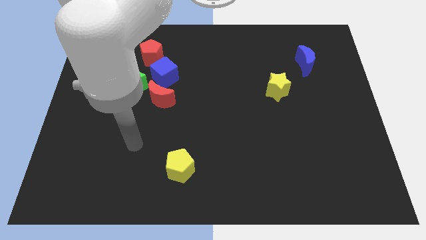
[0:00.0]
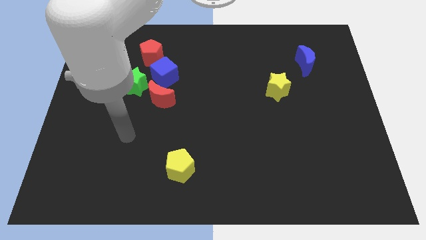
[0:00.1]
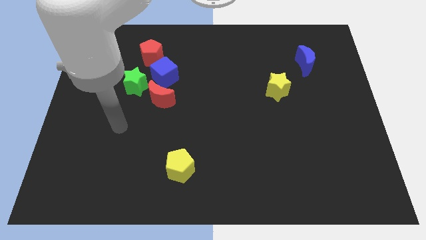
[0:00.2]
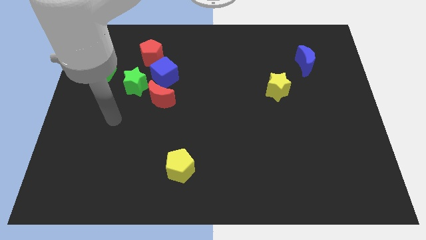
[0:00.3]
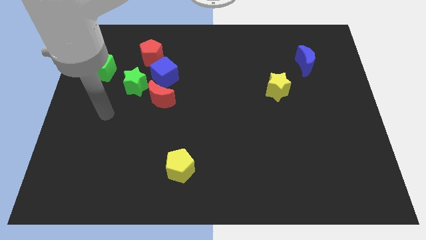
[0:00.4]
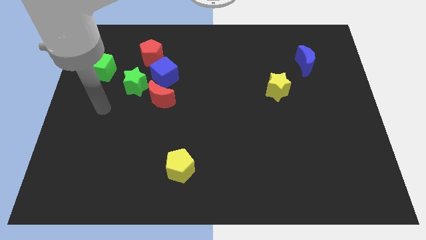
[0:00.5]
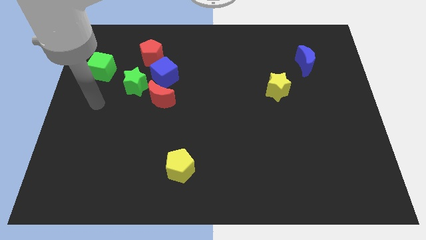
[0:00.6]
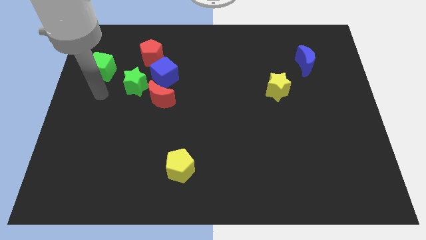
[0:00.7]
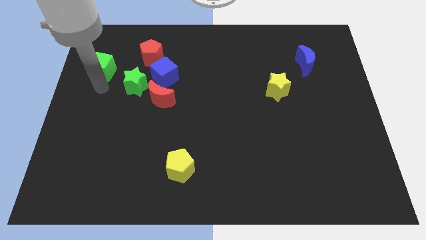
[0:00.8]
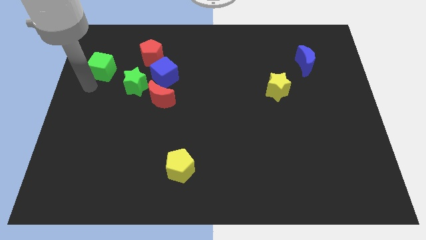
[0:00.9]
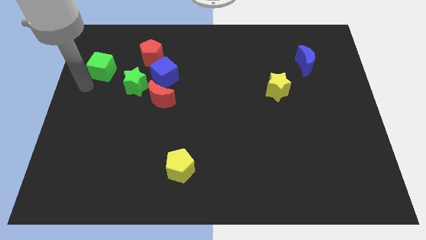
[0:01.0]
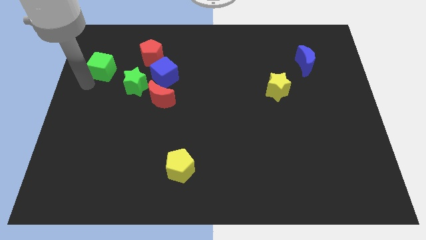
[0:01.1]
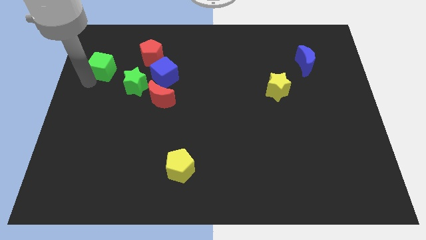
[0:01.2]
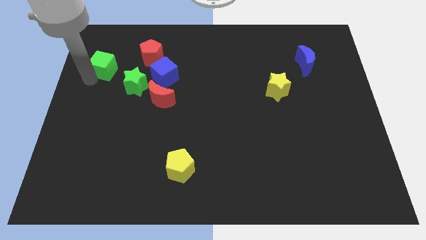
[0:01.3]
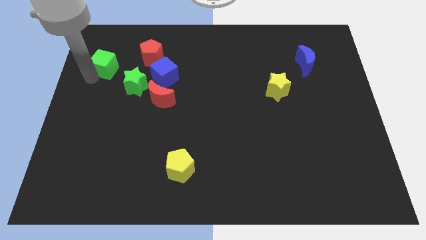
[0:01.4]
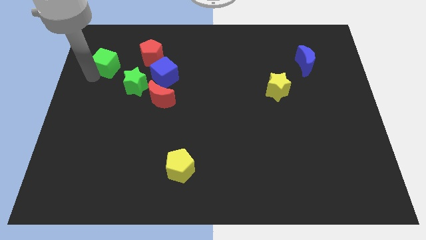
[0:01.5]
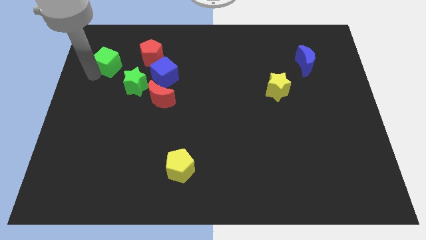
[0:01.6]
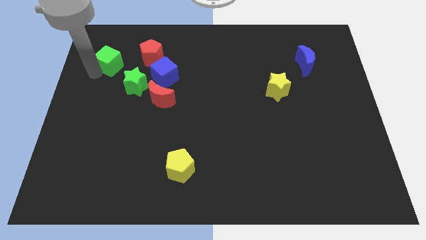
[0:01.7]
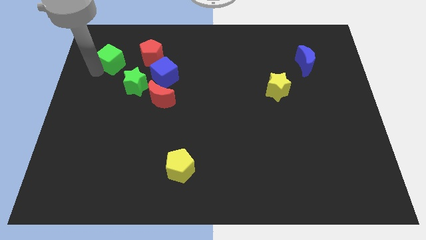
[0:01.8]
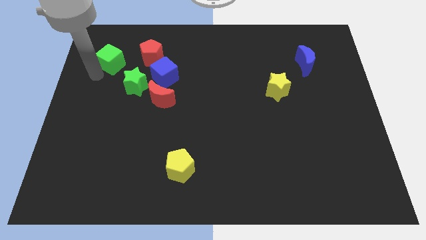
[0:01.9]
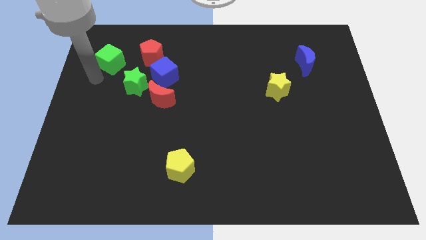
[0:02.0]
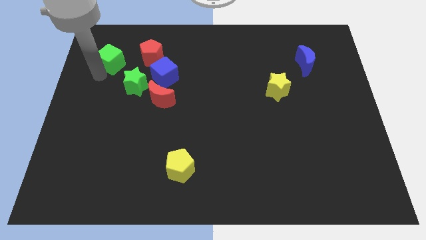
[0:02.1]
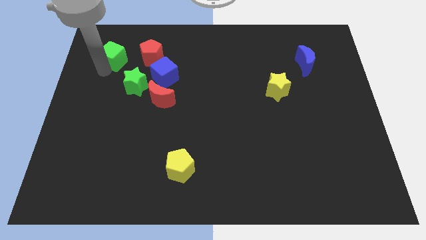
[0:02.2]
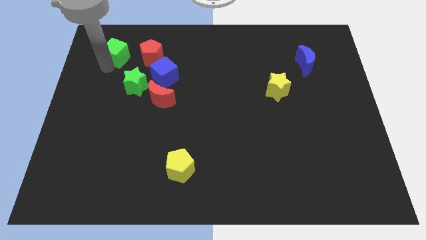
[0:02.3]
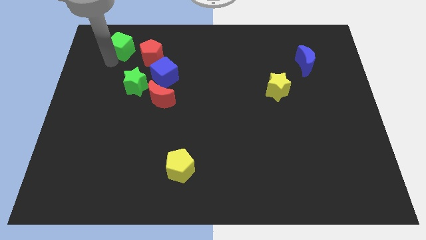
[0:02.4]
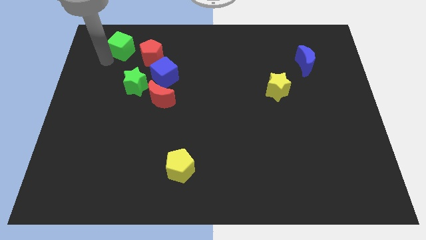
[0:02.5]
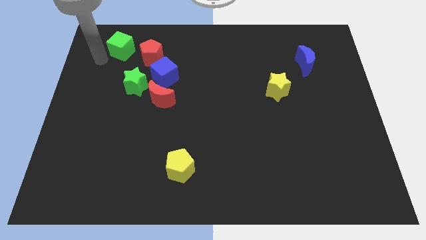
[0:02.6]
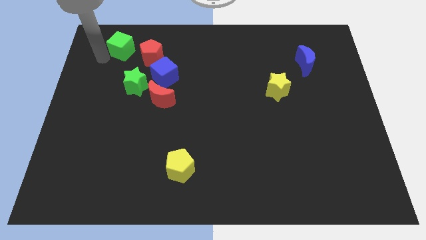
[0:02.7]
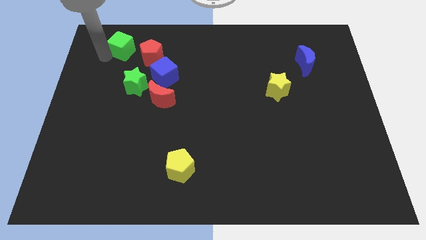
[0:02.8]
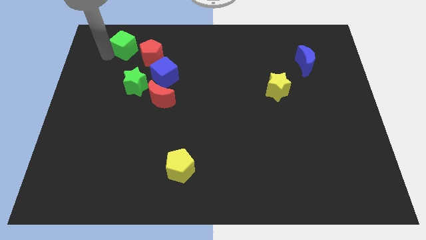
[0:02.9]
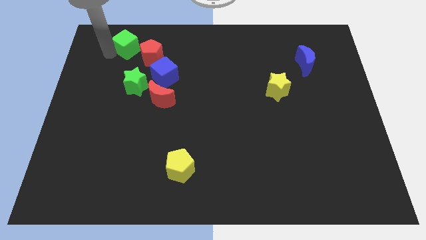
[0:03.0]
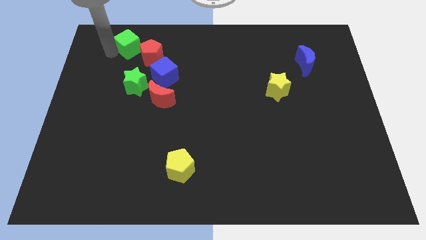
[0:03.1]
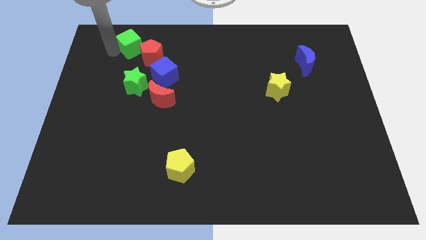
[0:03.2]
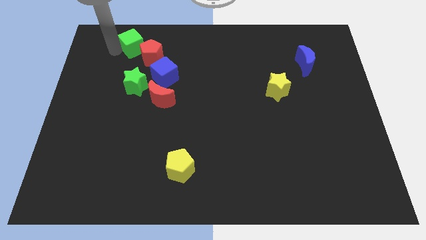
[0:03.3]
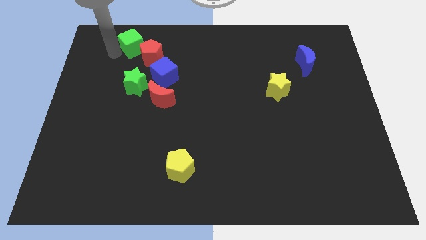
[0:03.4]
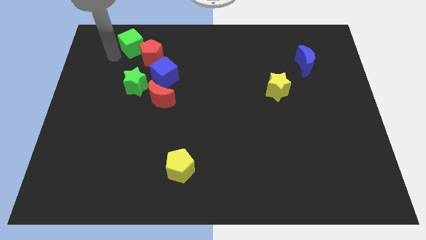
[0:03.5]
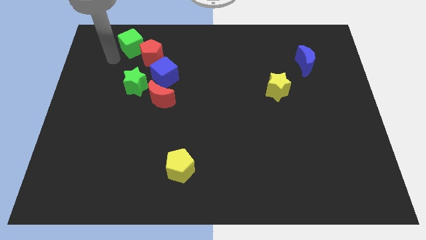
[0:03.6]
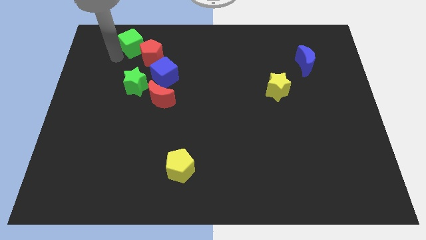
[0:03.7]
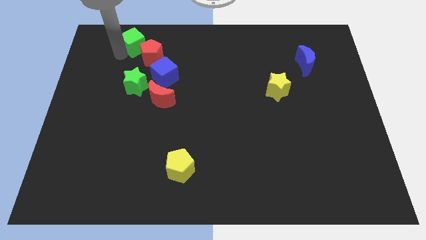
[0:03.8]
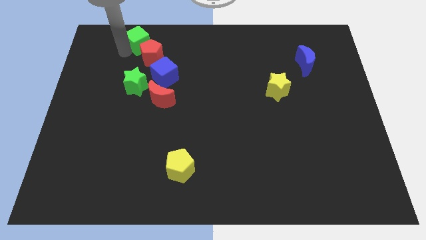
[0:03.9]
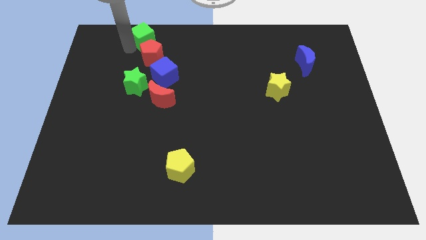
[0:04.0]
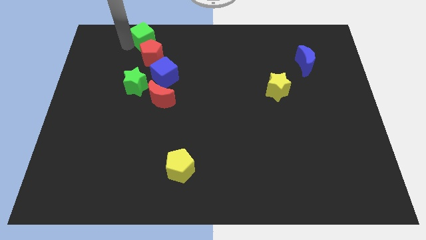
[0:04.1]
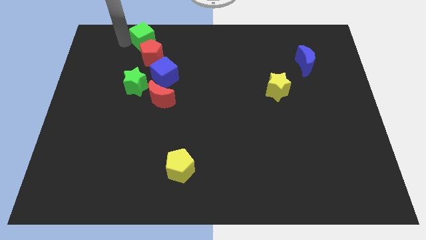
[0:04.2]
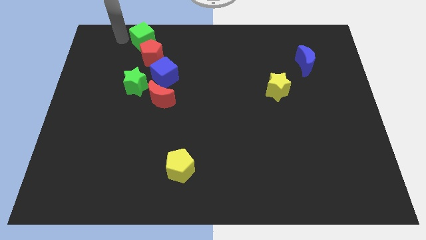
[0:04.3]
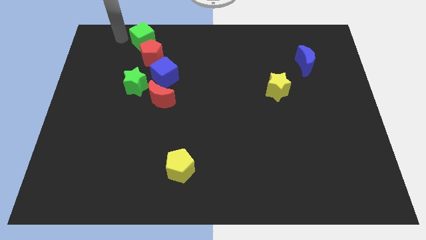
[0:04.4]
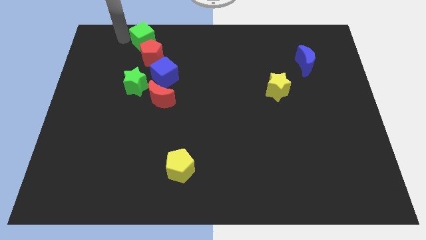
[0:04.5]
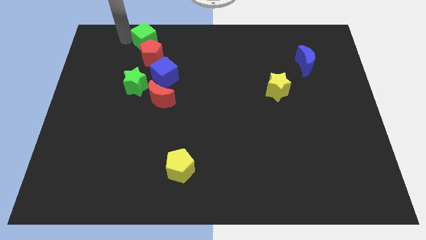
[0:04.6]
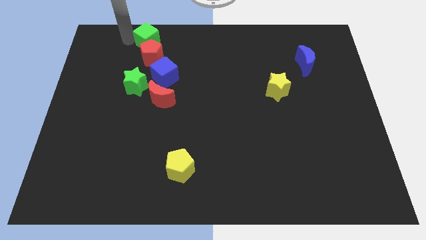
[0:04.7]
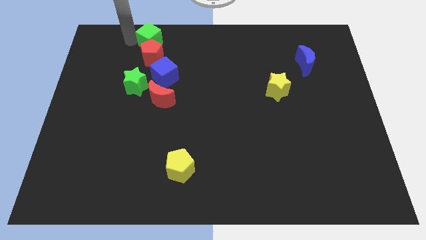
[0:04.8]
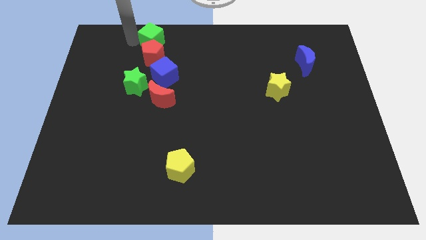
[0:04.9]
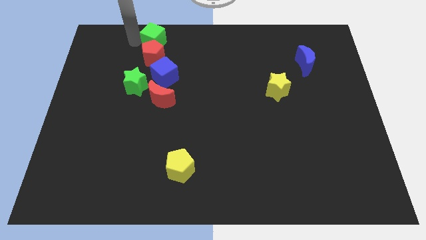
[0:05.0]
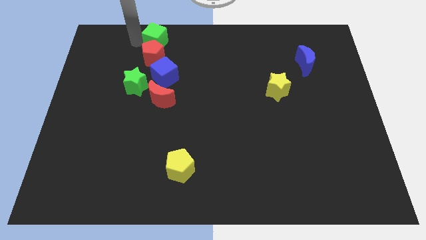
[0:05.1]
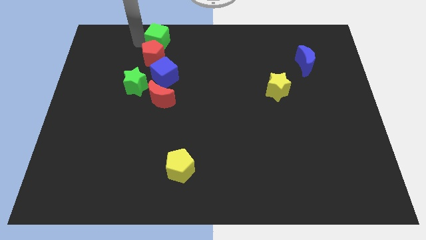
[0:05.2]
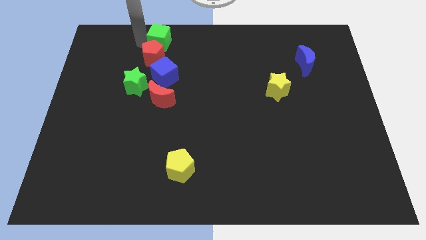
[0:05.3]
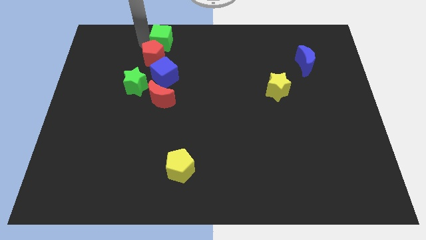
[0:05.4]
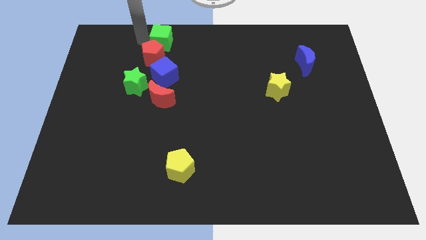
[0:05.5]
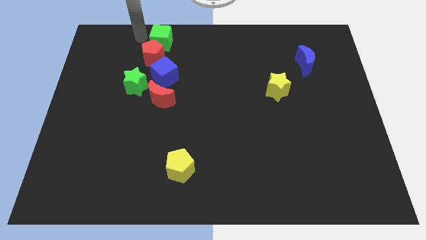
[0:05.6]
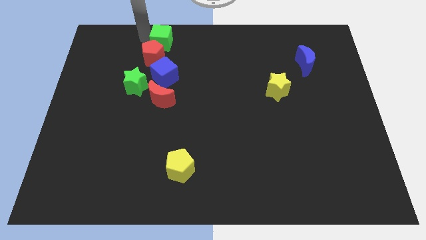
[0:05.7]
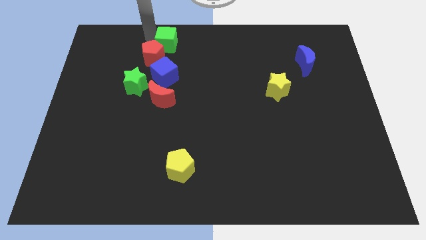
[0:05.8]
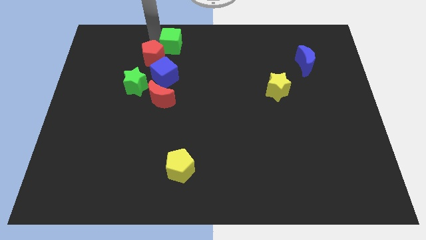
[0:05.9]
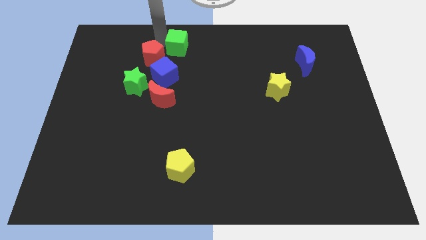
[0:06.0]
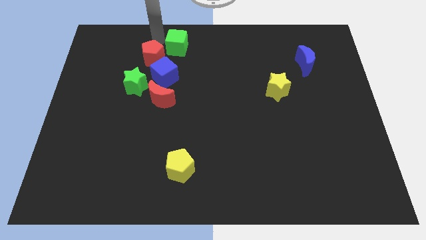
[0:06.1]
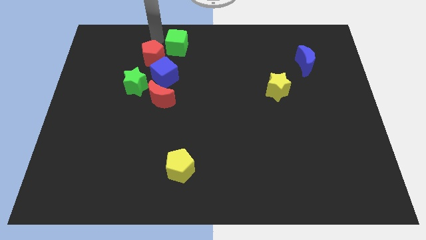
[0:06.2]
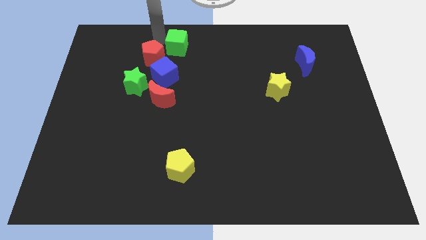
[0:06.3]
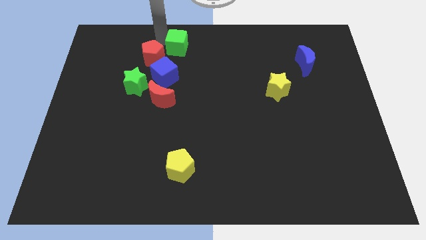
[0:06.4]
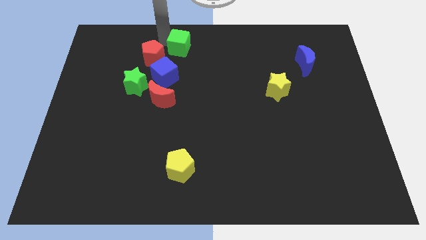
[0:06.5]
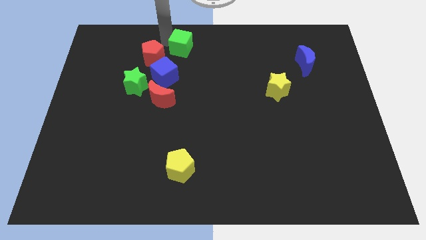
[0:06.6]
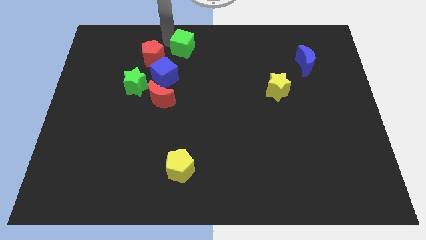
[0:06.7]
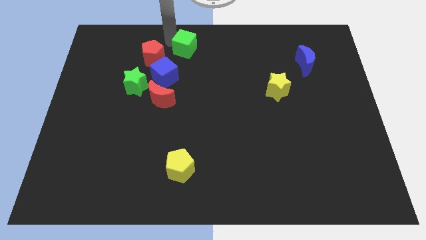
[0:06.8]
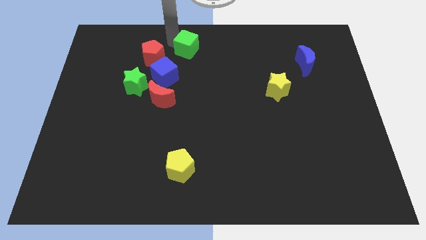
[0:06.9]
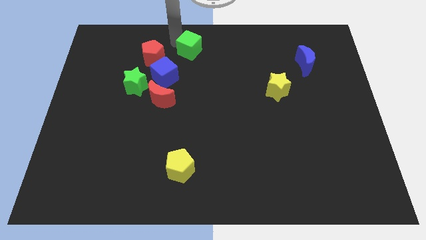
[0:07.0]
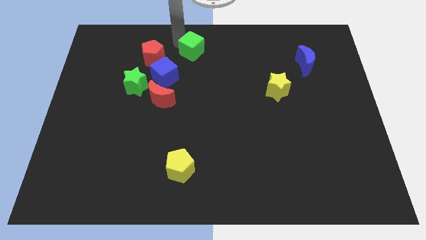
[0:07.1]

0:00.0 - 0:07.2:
slide the green cube right

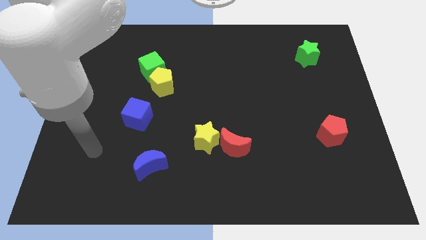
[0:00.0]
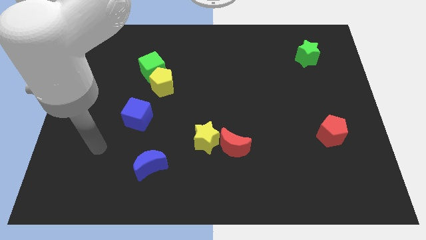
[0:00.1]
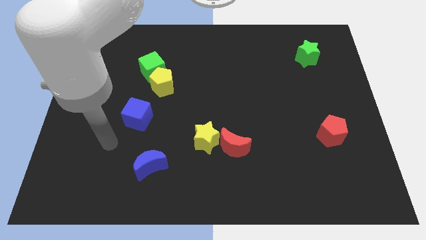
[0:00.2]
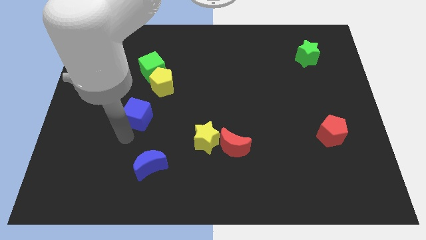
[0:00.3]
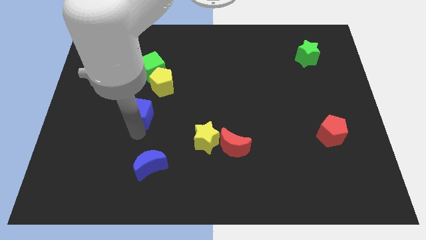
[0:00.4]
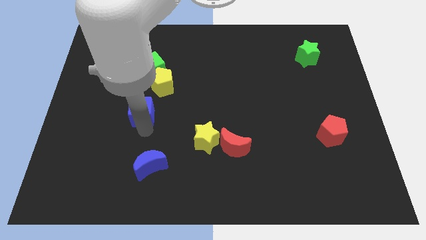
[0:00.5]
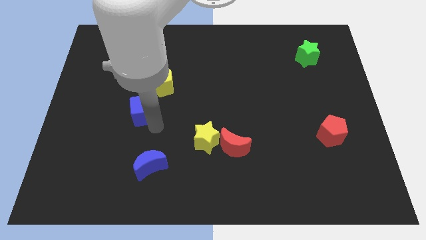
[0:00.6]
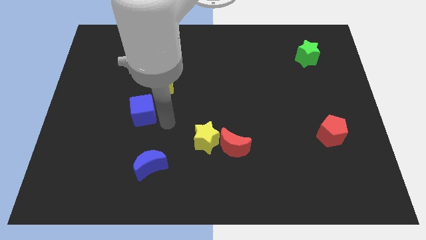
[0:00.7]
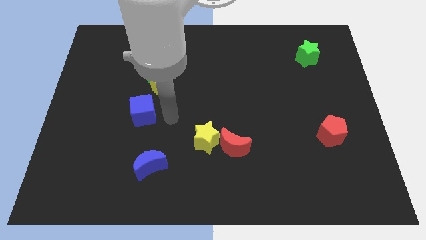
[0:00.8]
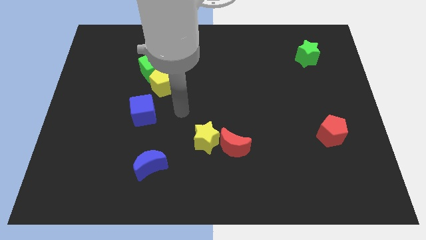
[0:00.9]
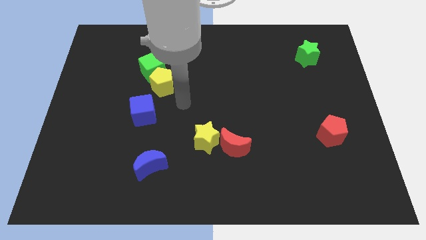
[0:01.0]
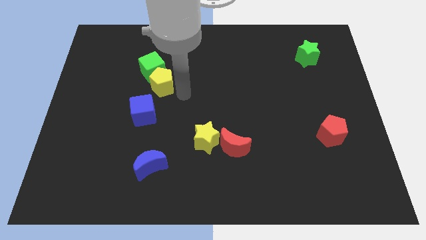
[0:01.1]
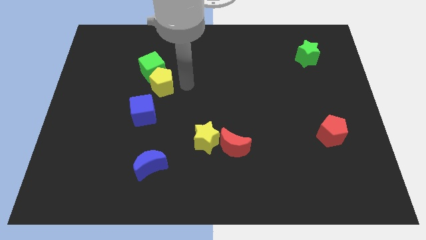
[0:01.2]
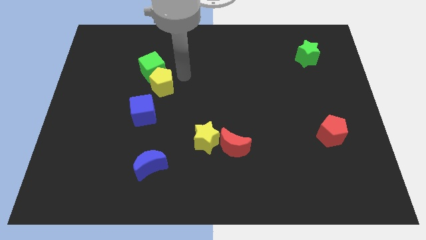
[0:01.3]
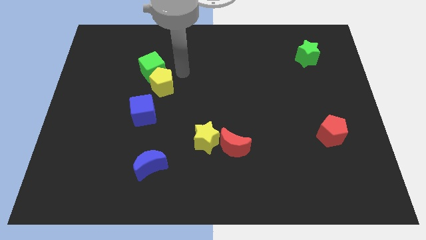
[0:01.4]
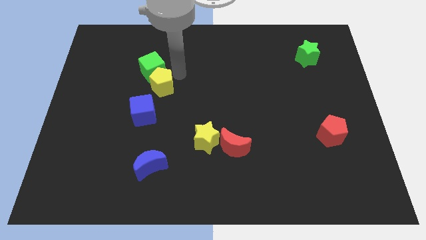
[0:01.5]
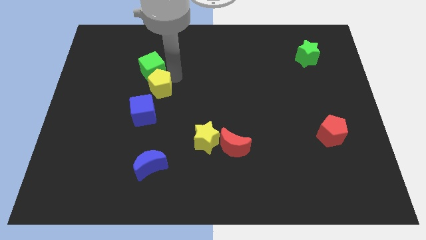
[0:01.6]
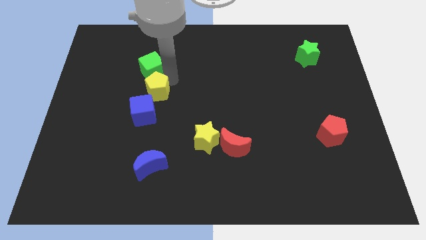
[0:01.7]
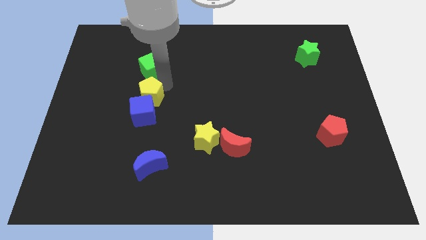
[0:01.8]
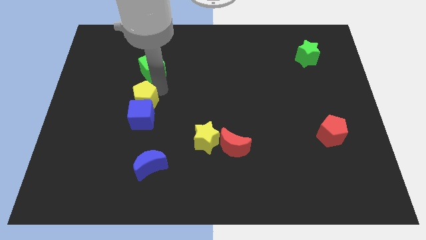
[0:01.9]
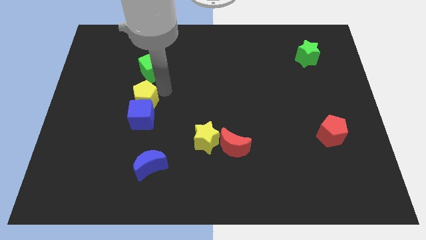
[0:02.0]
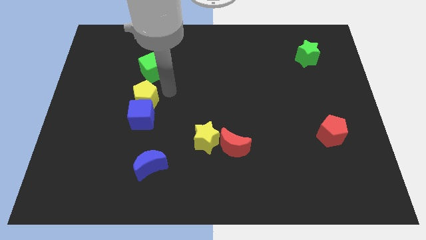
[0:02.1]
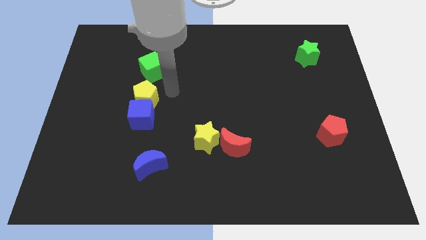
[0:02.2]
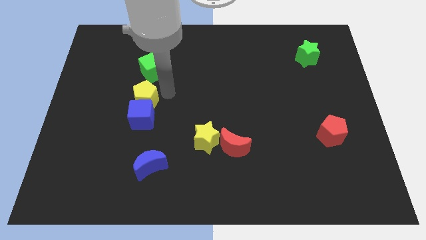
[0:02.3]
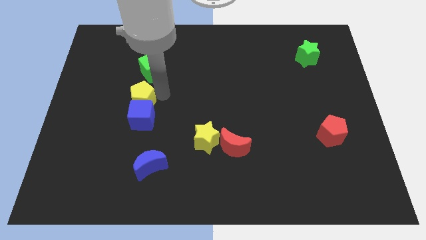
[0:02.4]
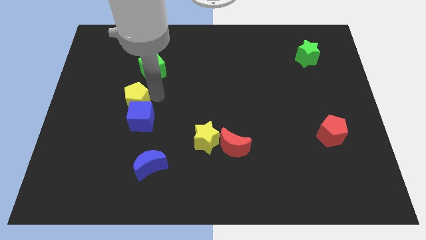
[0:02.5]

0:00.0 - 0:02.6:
slightly move the yellow pentagon down and left diagonally
